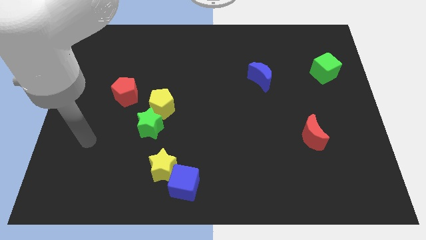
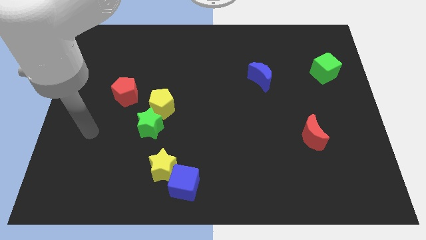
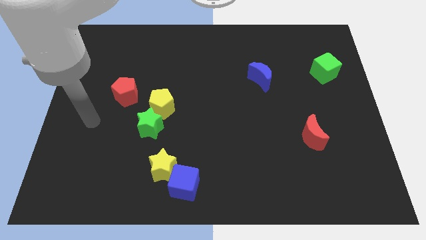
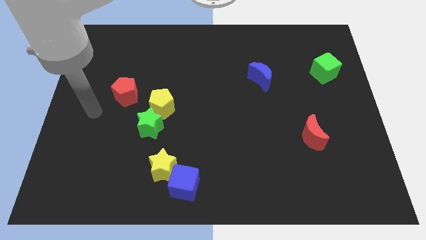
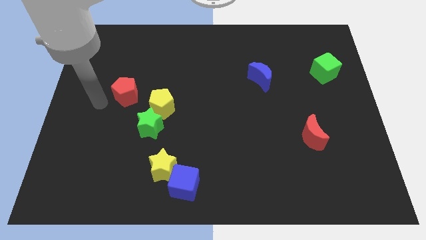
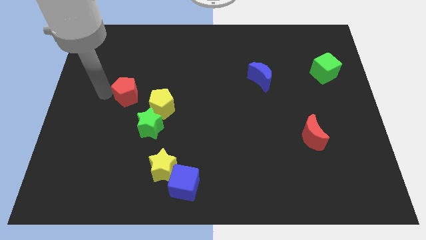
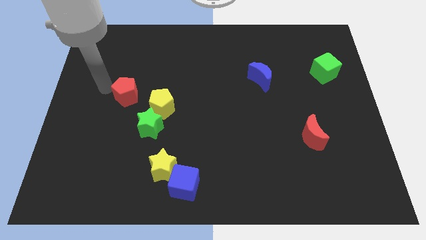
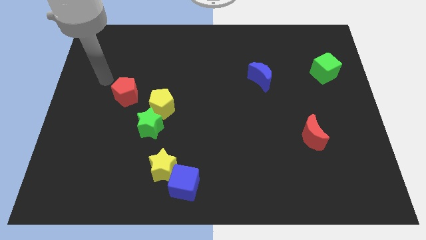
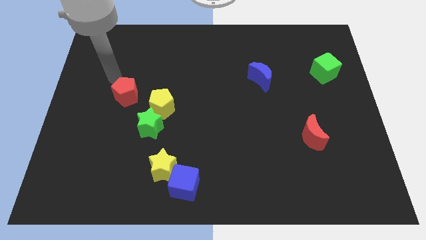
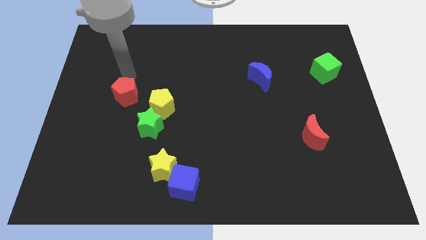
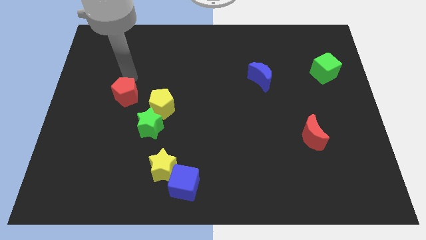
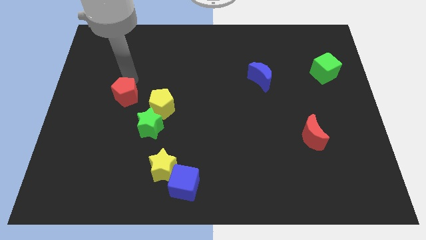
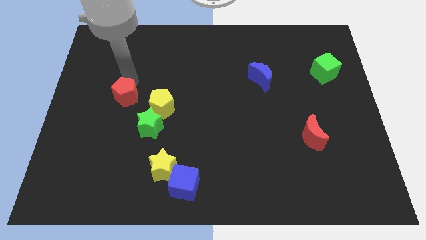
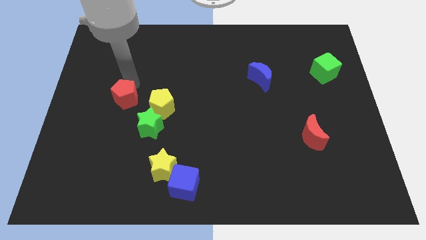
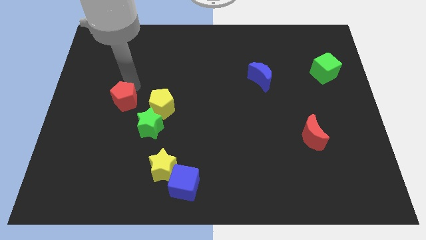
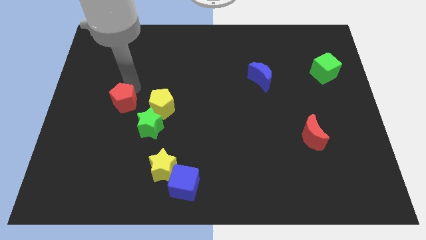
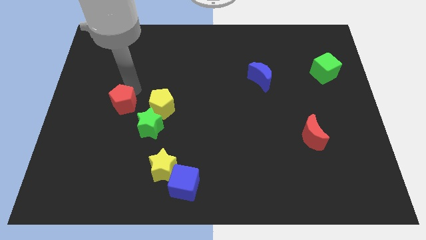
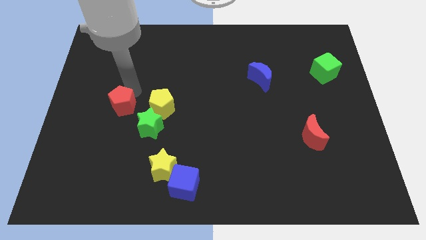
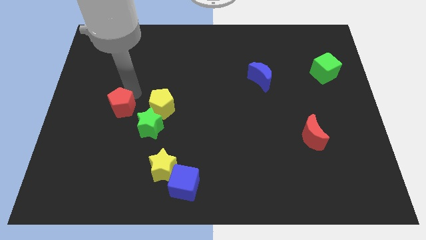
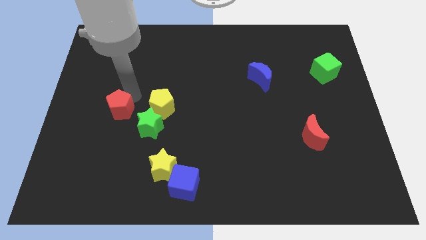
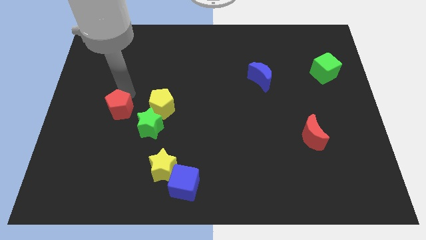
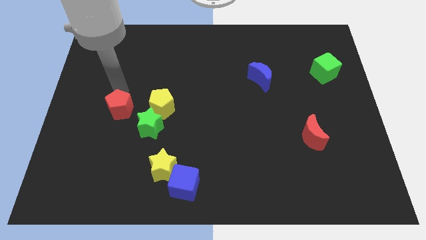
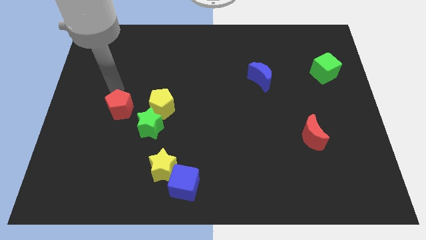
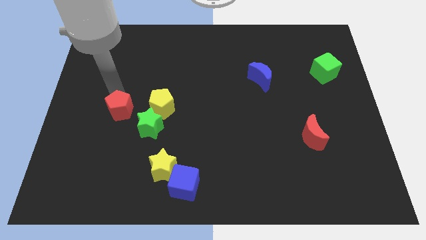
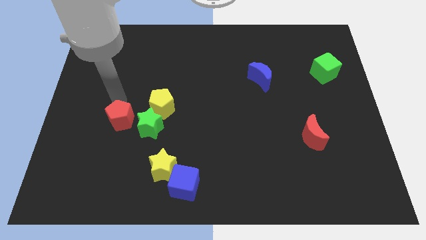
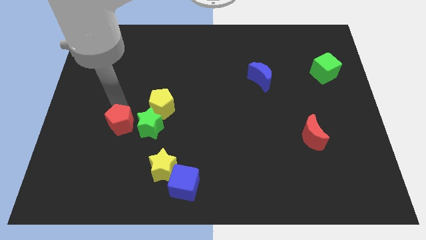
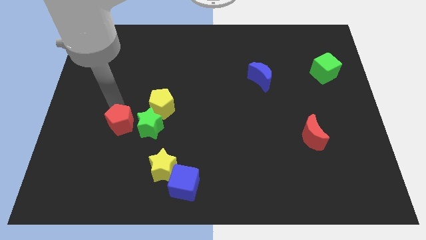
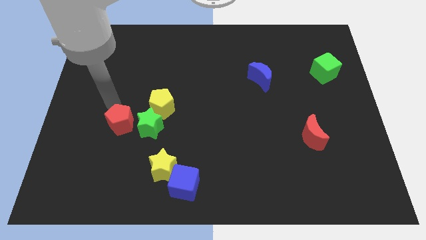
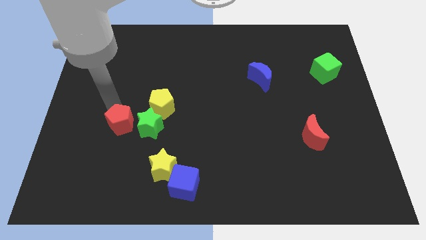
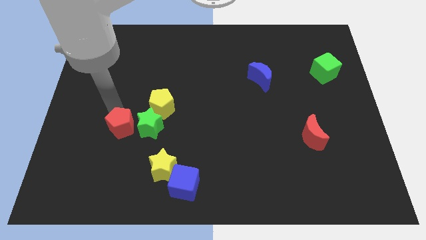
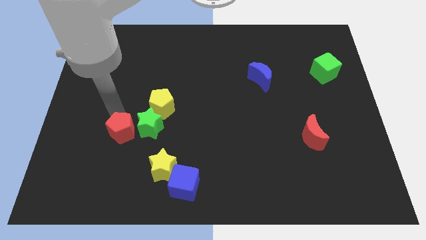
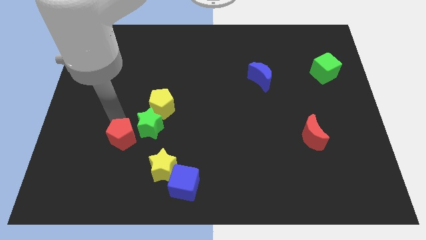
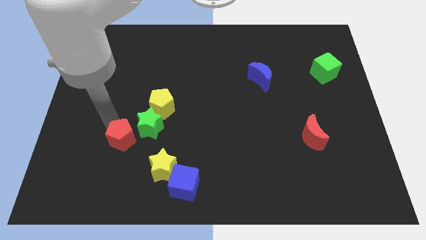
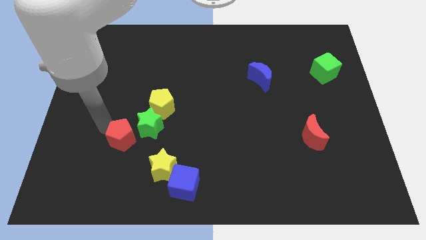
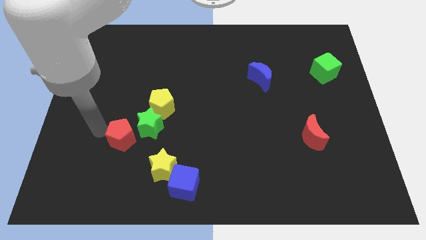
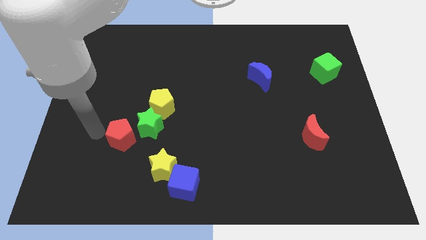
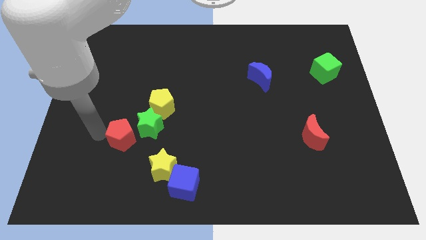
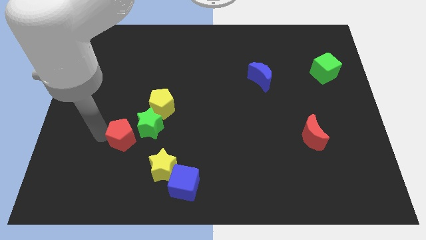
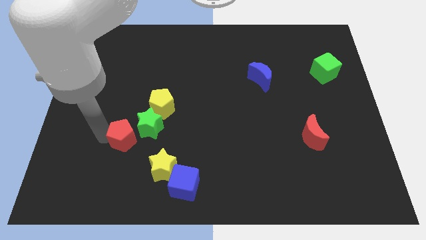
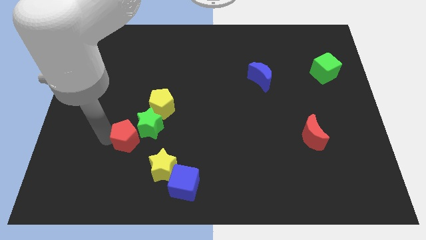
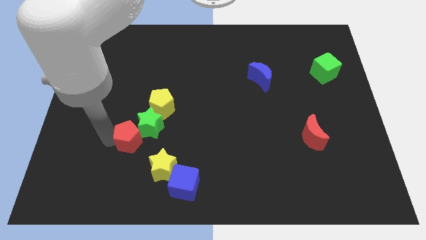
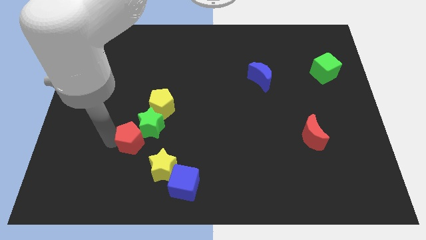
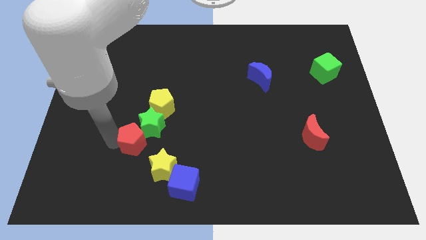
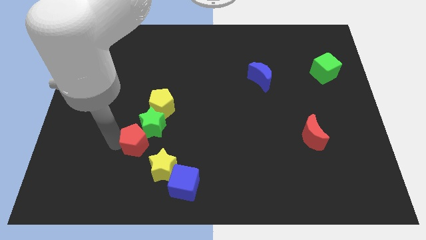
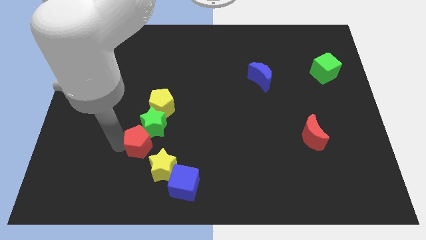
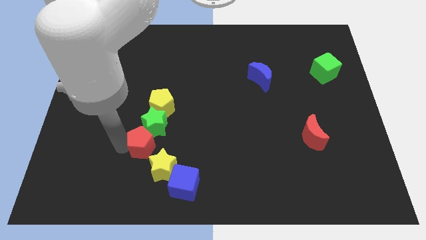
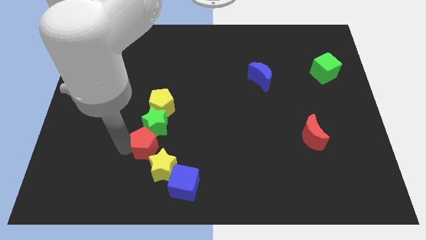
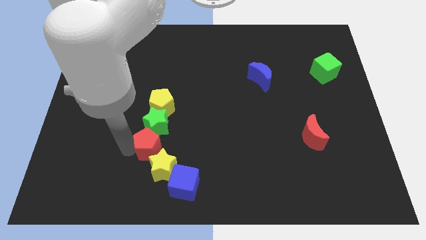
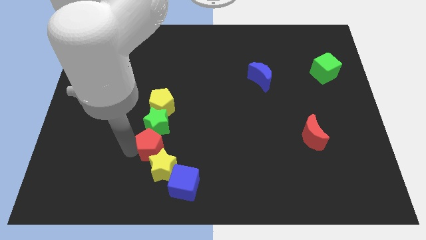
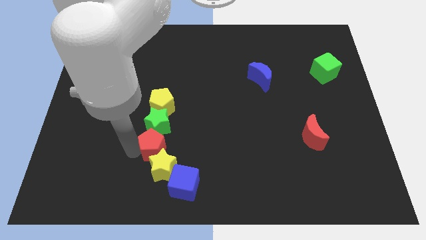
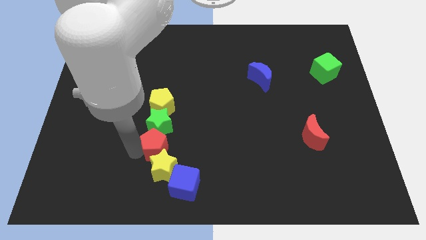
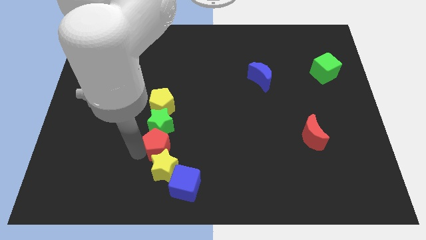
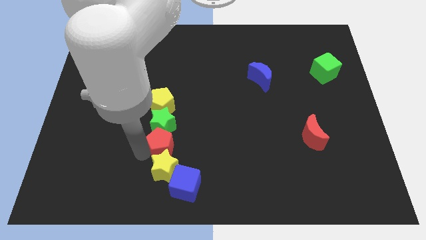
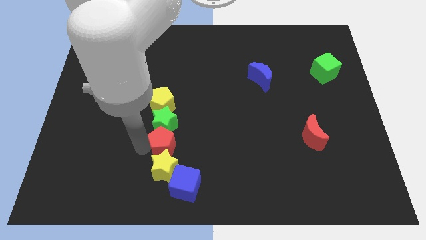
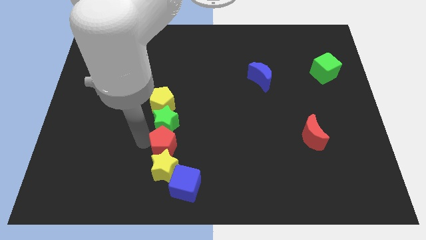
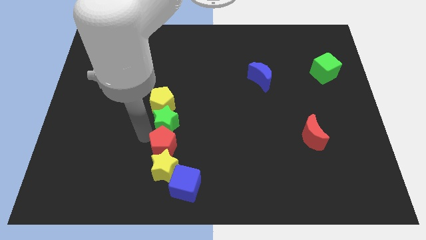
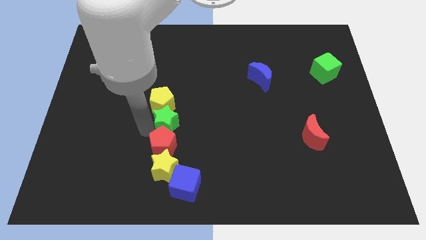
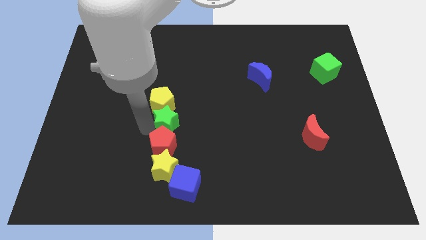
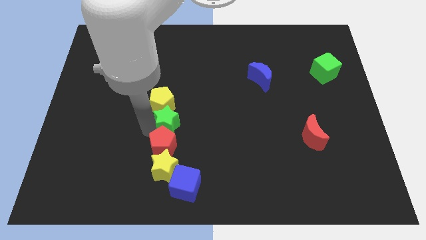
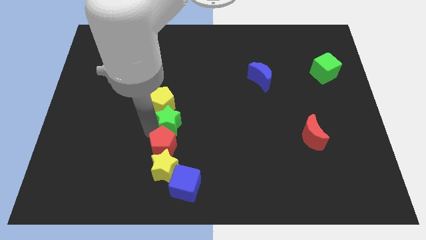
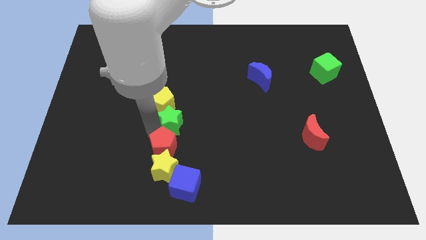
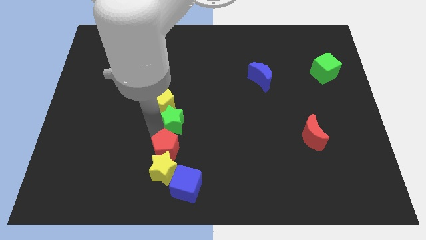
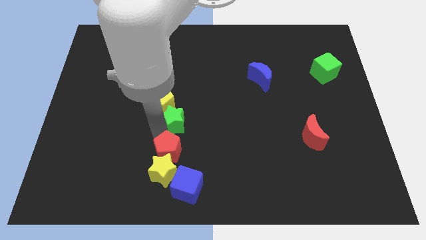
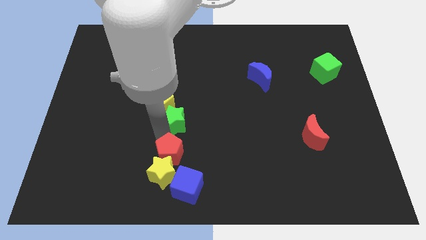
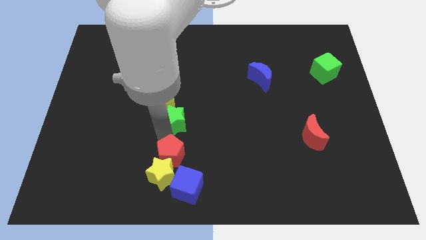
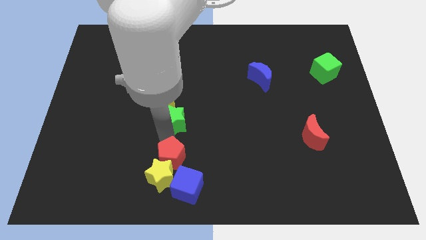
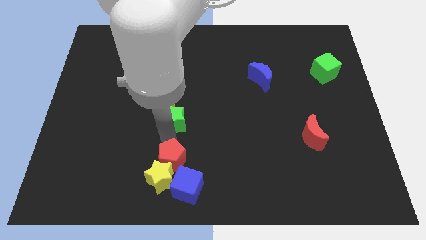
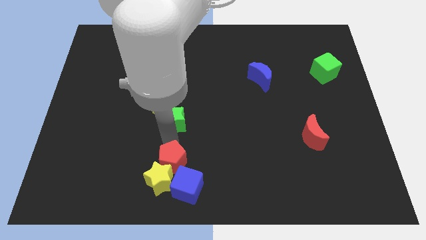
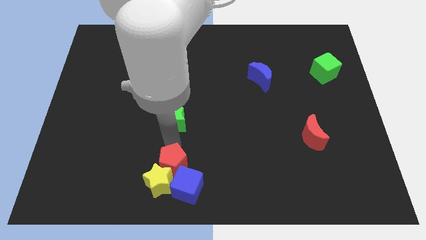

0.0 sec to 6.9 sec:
push the red pentagon close to the blue cube

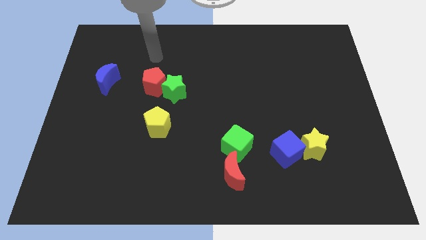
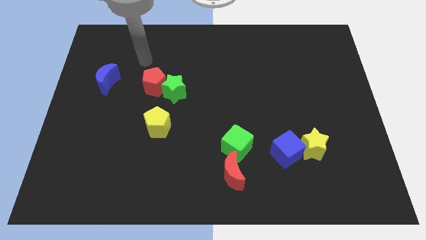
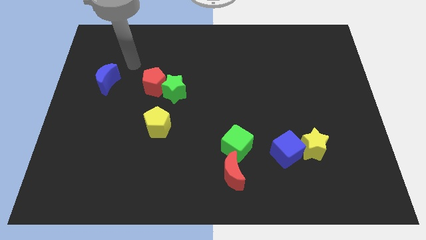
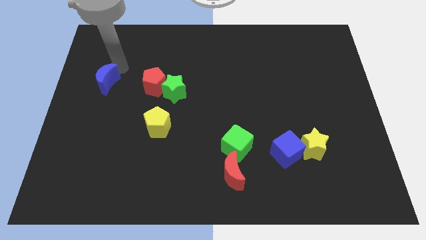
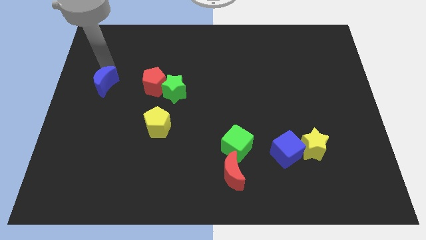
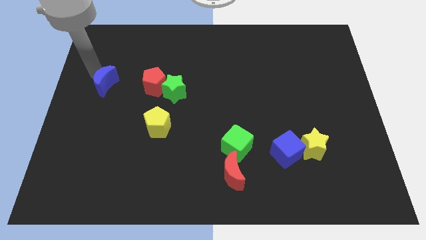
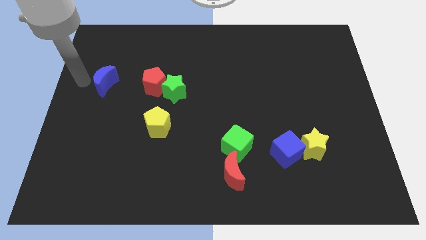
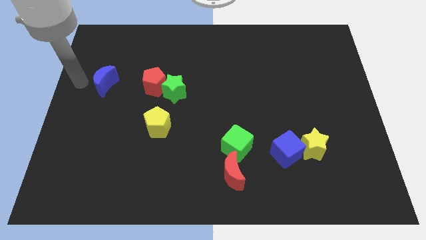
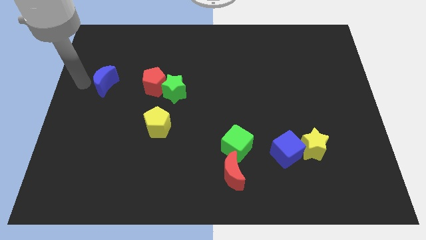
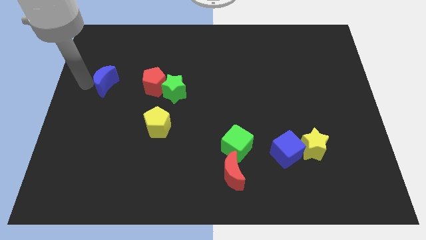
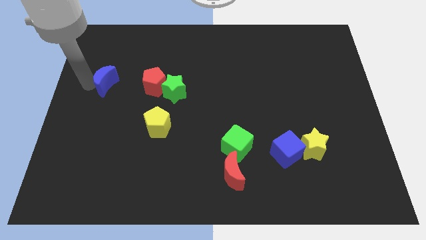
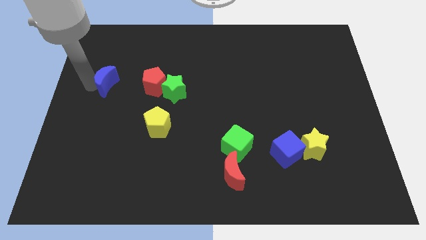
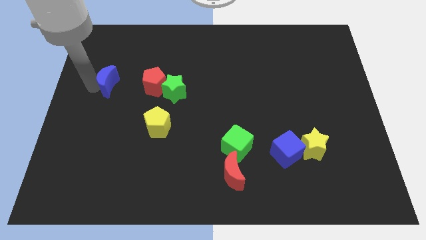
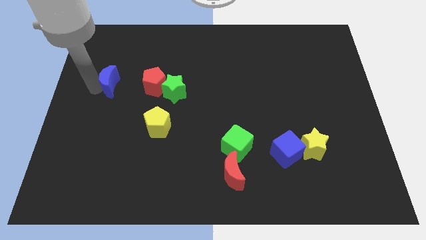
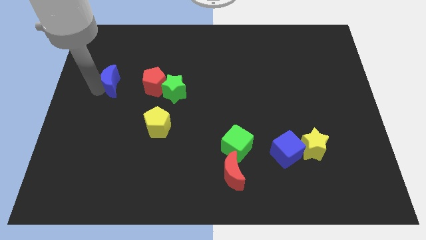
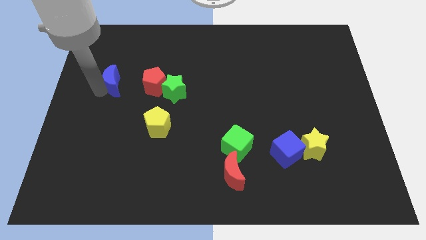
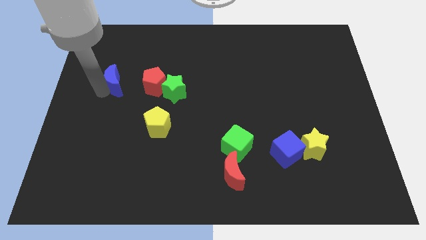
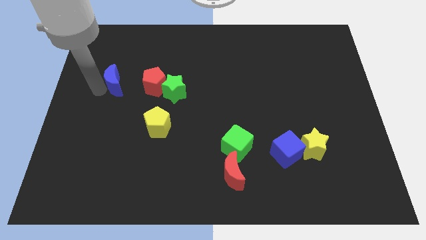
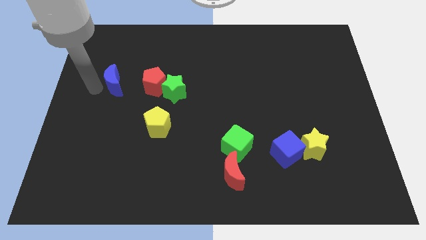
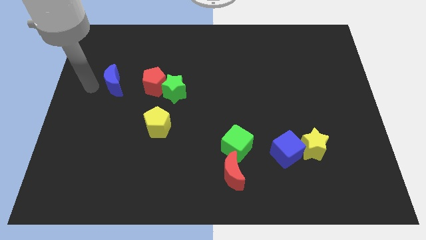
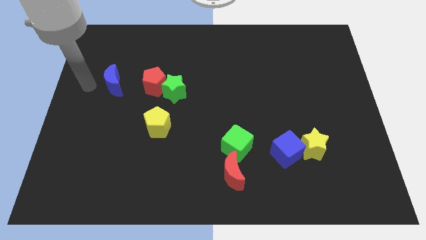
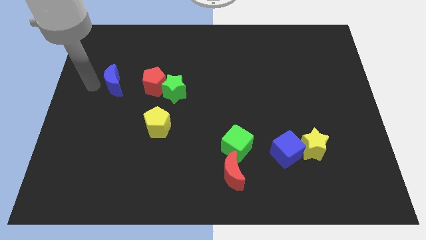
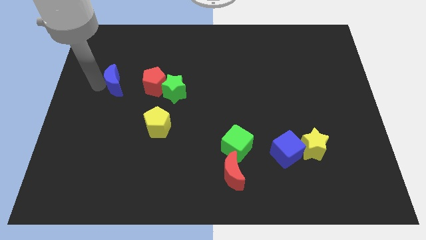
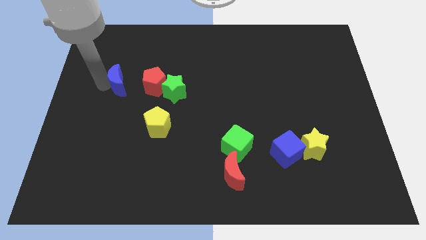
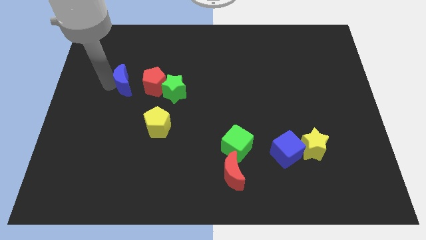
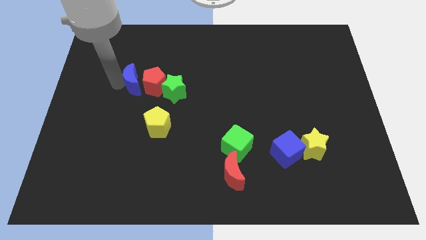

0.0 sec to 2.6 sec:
put the blue moon to the red pentagon
